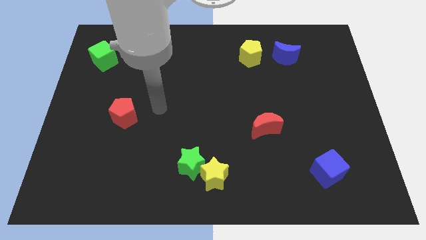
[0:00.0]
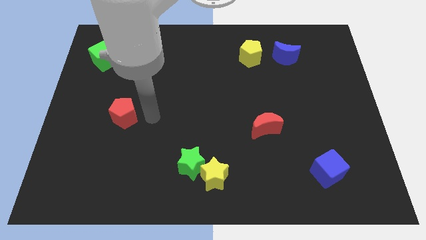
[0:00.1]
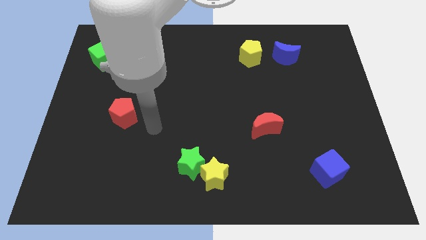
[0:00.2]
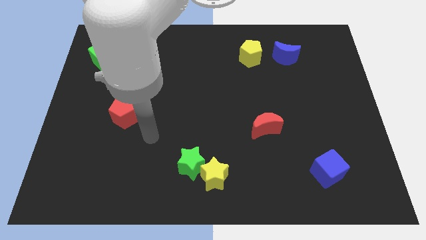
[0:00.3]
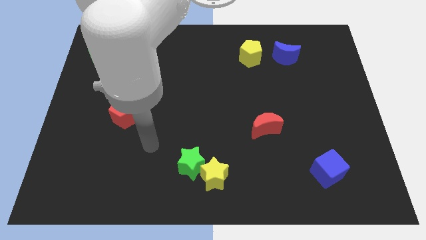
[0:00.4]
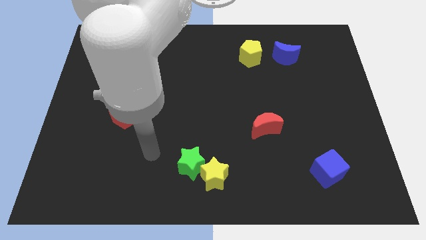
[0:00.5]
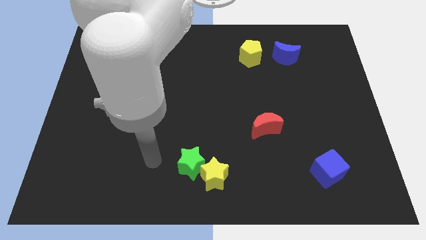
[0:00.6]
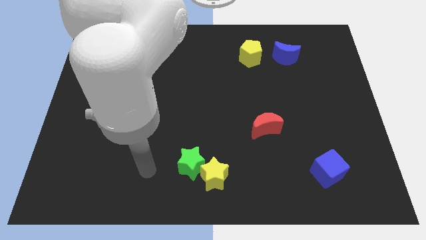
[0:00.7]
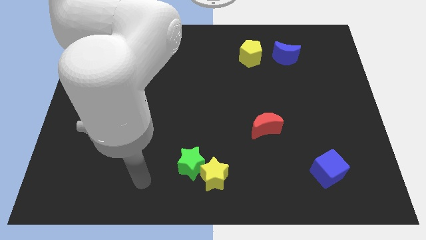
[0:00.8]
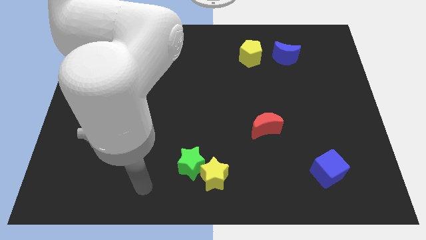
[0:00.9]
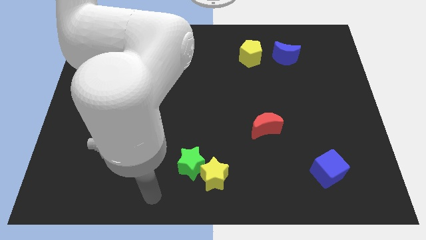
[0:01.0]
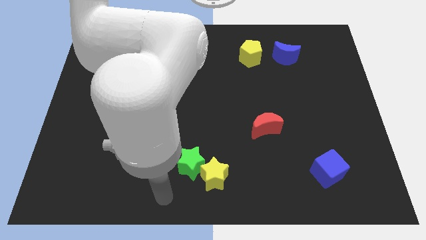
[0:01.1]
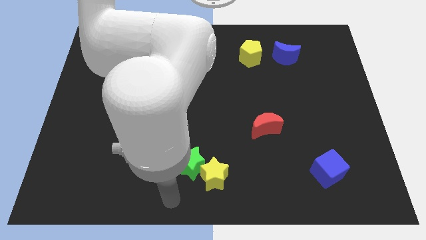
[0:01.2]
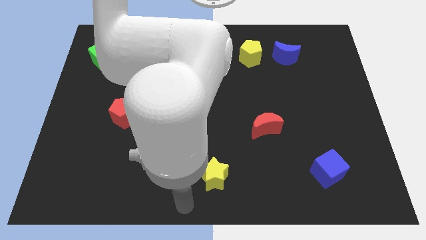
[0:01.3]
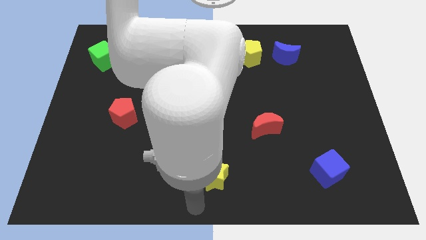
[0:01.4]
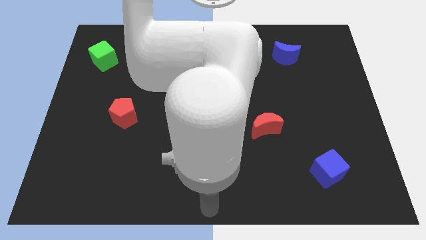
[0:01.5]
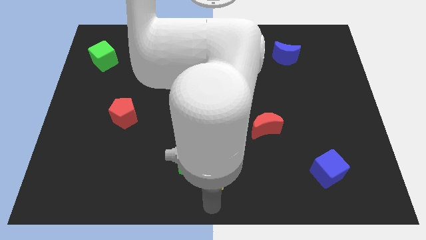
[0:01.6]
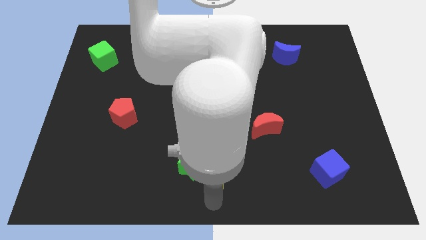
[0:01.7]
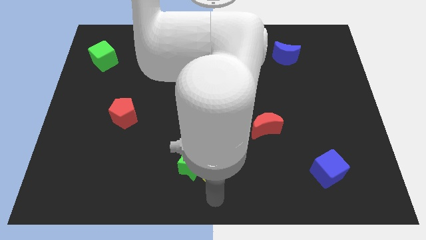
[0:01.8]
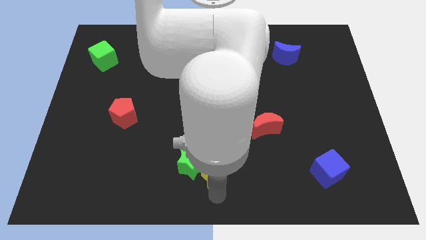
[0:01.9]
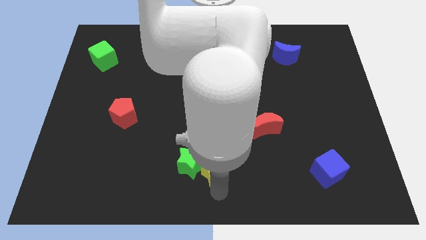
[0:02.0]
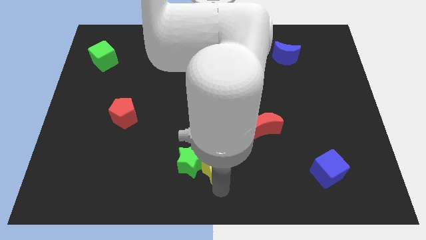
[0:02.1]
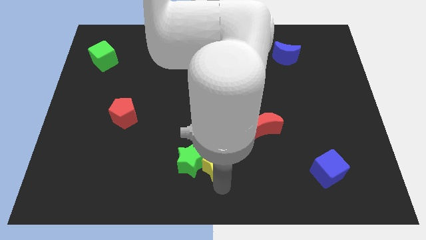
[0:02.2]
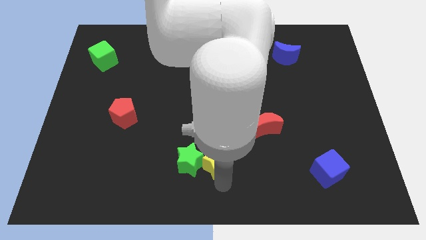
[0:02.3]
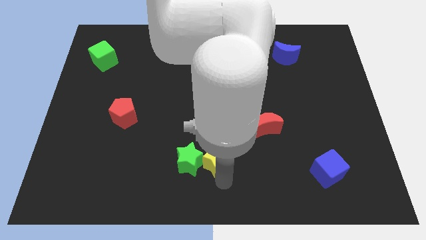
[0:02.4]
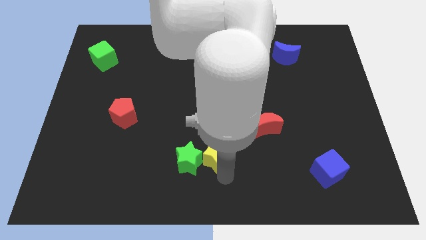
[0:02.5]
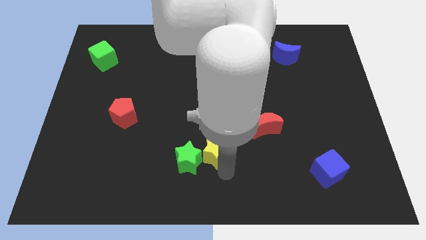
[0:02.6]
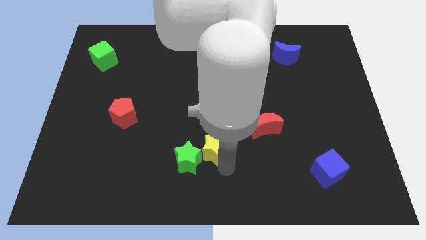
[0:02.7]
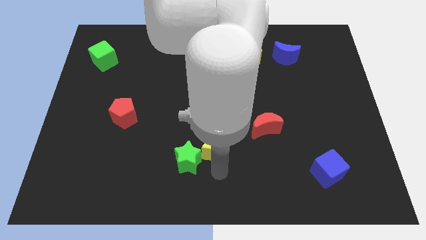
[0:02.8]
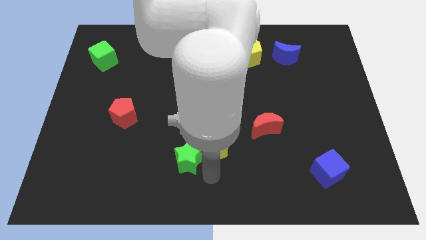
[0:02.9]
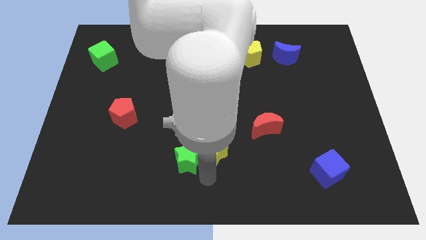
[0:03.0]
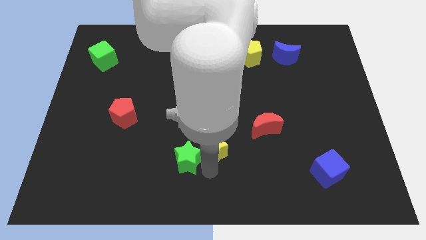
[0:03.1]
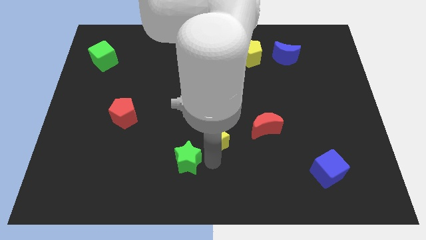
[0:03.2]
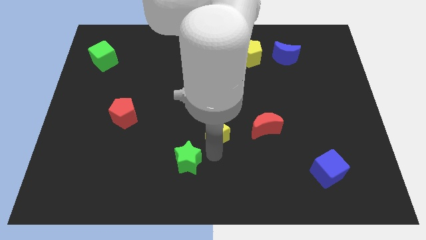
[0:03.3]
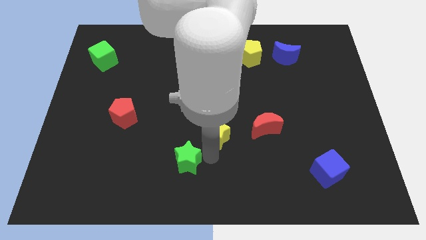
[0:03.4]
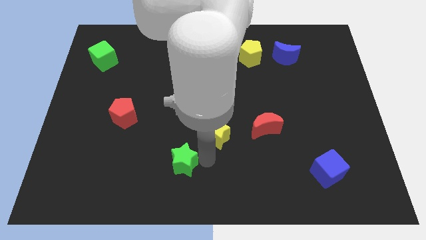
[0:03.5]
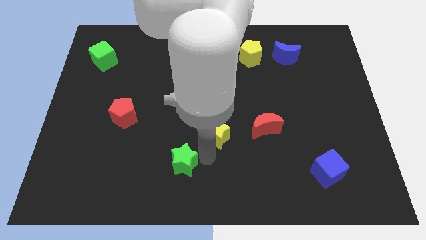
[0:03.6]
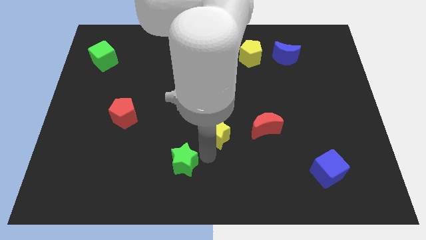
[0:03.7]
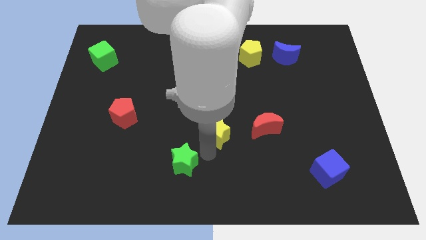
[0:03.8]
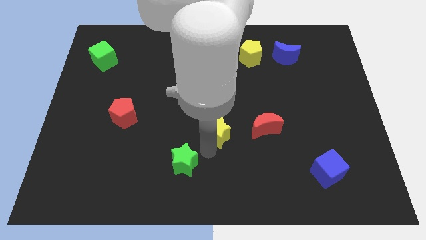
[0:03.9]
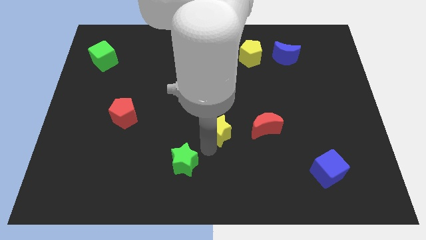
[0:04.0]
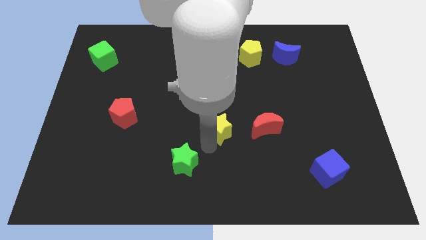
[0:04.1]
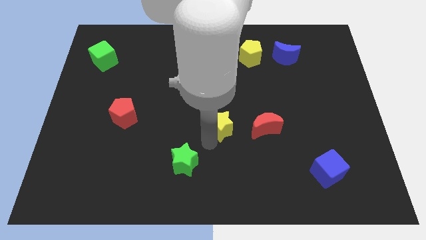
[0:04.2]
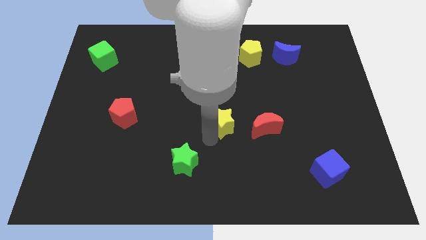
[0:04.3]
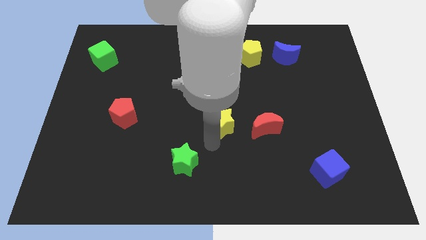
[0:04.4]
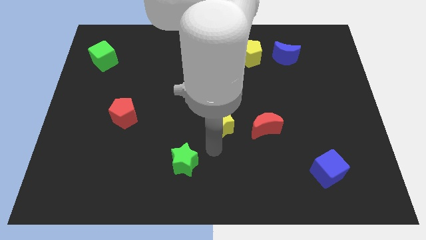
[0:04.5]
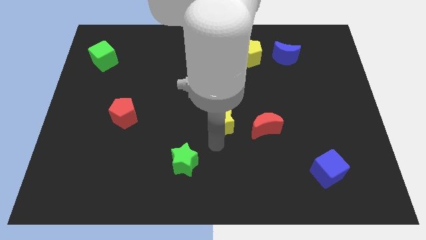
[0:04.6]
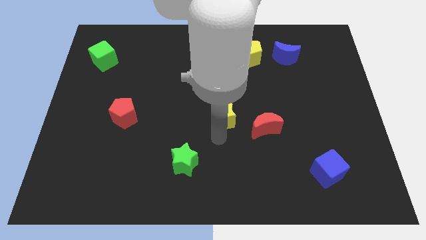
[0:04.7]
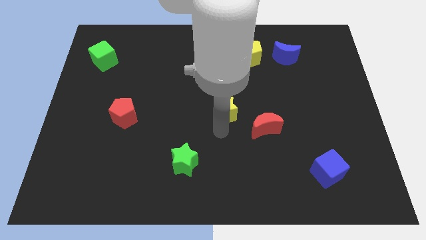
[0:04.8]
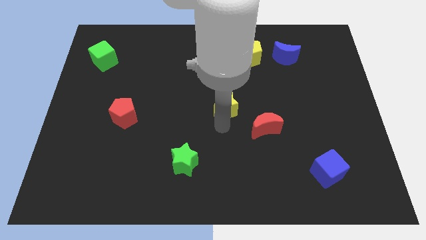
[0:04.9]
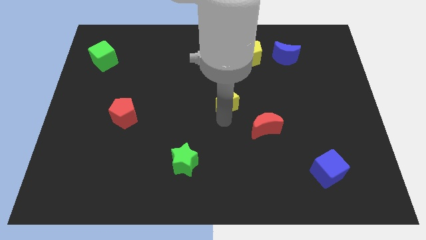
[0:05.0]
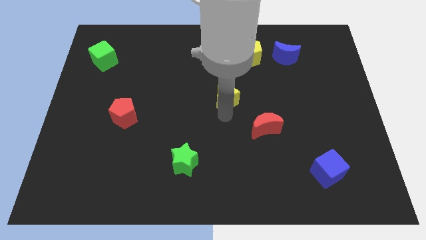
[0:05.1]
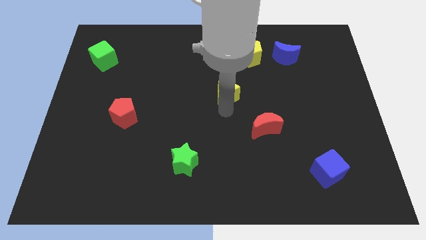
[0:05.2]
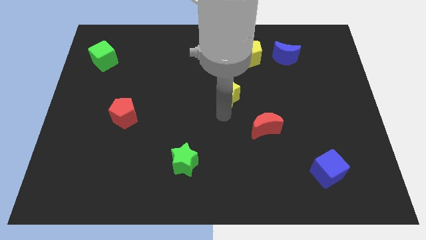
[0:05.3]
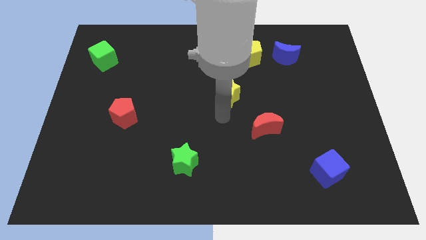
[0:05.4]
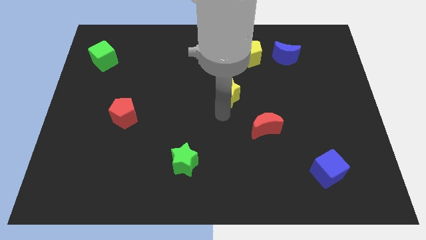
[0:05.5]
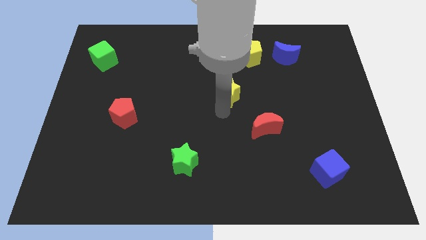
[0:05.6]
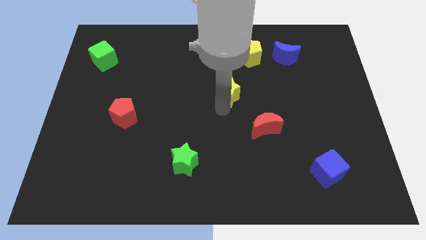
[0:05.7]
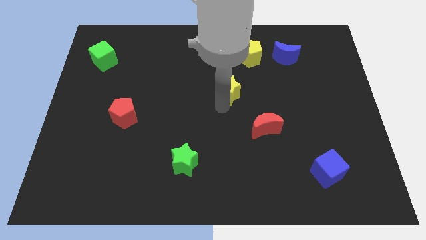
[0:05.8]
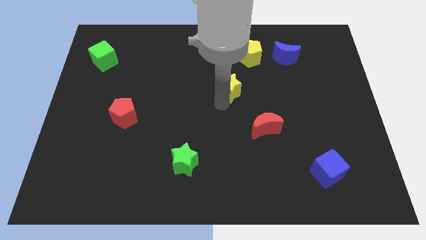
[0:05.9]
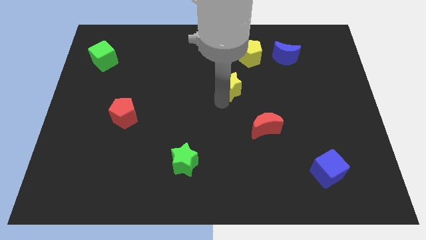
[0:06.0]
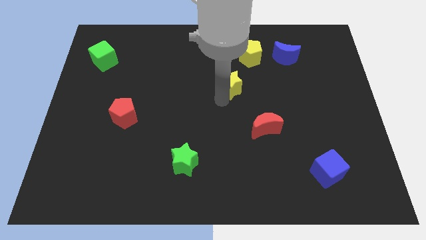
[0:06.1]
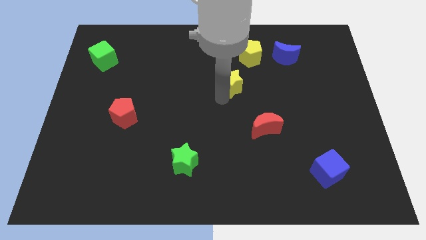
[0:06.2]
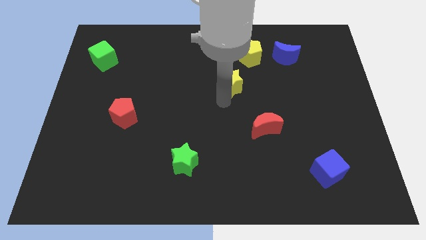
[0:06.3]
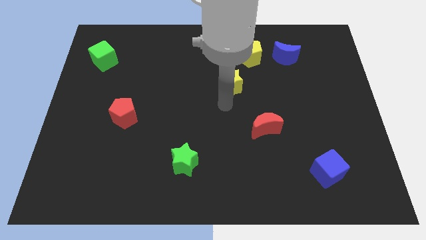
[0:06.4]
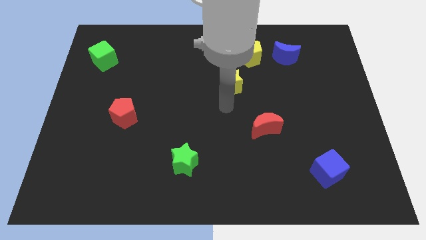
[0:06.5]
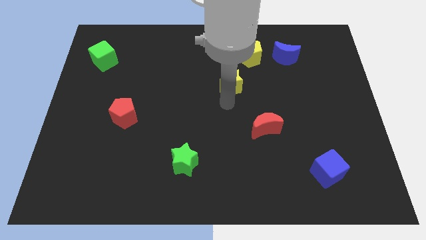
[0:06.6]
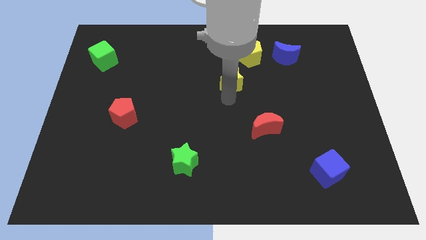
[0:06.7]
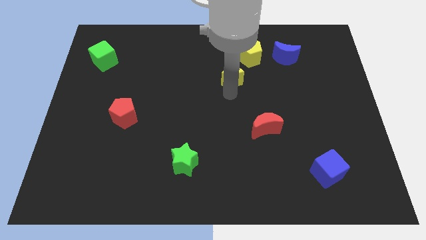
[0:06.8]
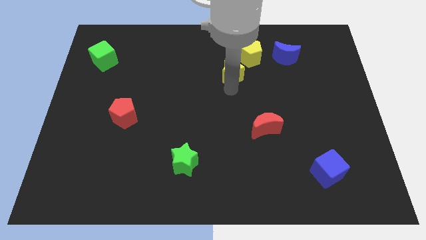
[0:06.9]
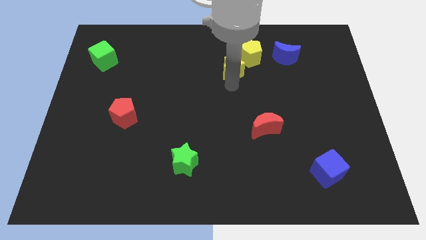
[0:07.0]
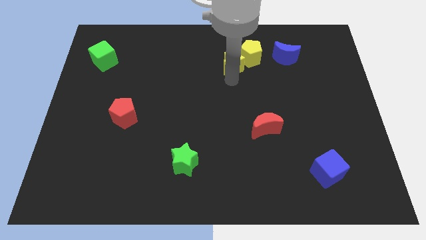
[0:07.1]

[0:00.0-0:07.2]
push the yellow star just left of the blue moon

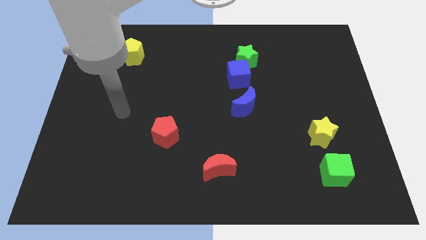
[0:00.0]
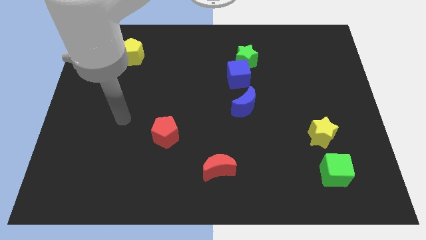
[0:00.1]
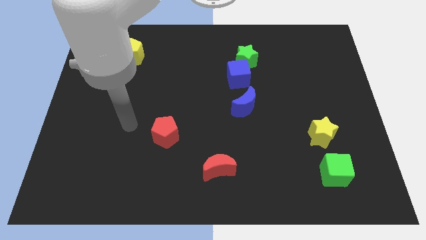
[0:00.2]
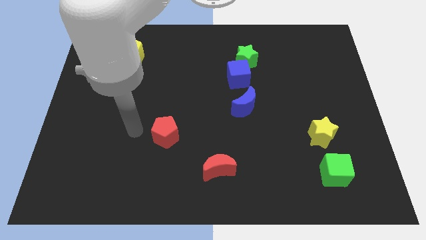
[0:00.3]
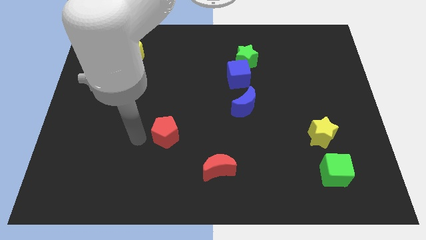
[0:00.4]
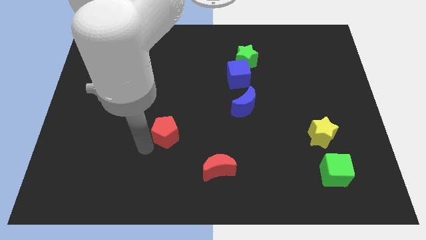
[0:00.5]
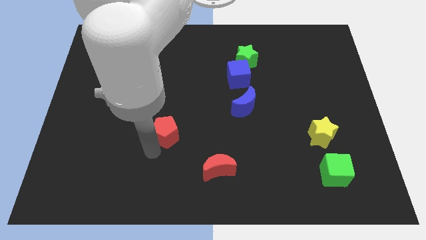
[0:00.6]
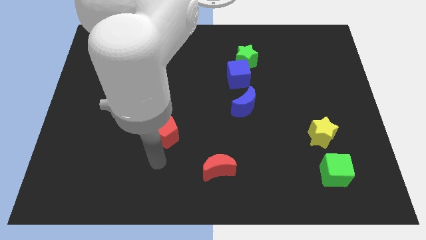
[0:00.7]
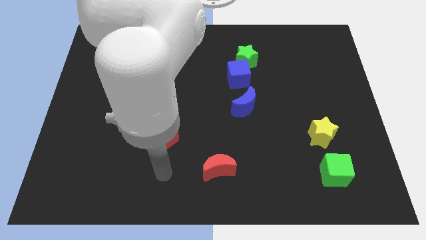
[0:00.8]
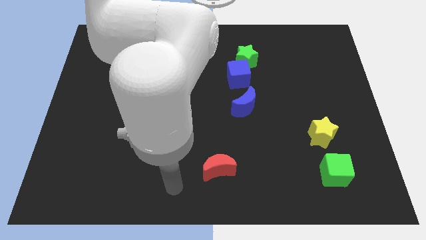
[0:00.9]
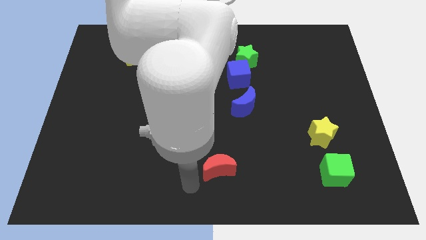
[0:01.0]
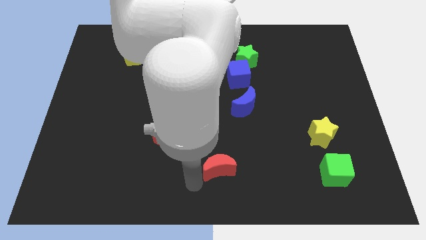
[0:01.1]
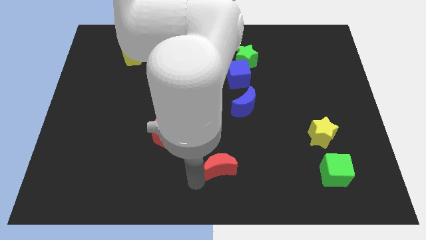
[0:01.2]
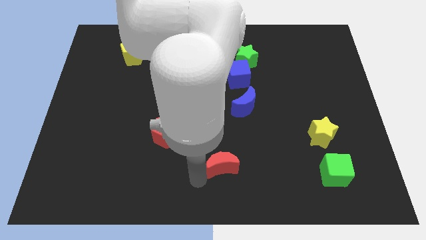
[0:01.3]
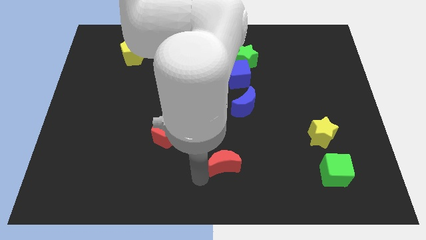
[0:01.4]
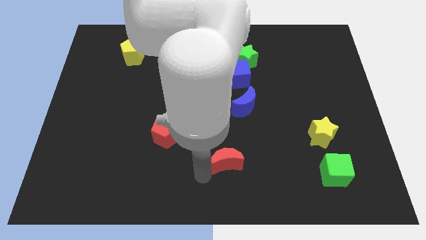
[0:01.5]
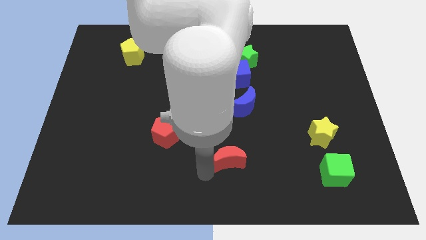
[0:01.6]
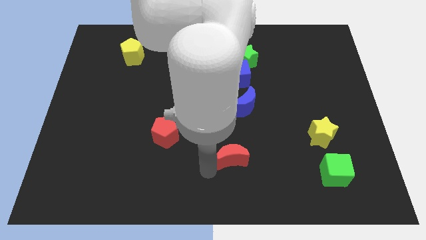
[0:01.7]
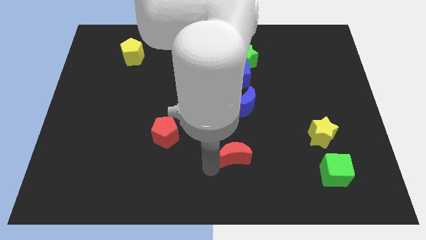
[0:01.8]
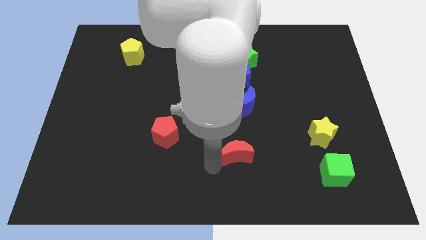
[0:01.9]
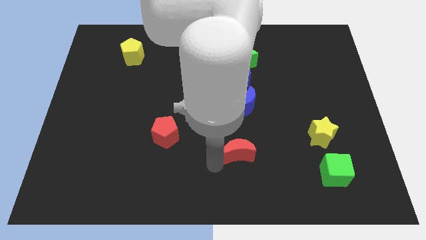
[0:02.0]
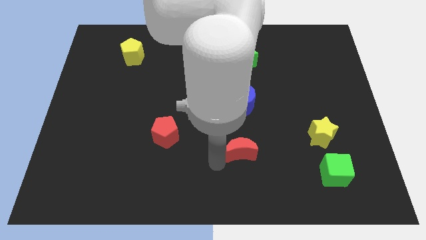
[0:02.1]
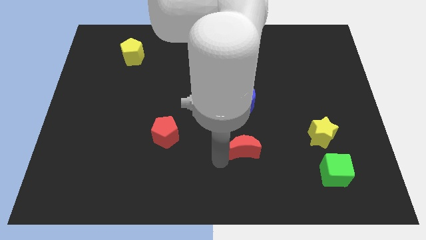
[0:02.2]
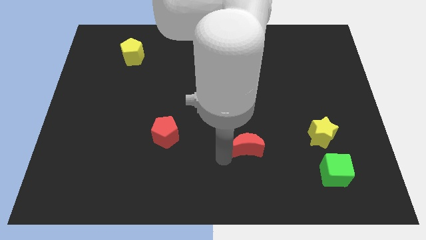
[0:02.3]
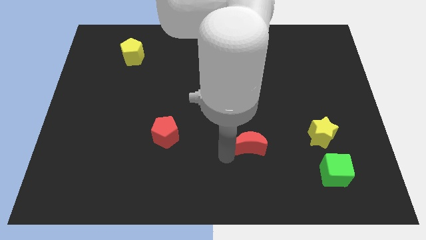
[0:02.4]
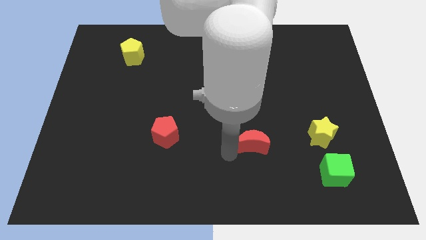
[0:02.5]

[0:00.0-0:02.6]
slide the red moon to the left of the yellow star
